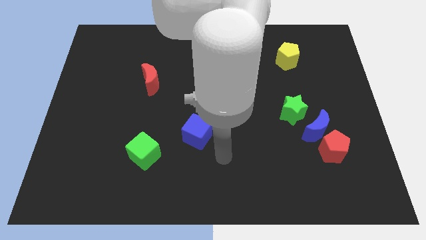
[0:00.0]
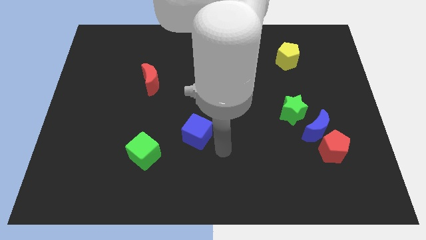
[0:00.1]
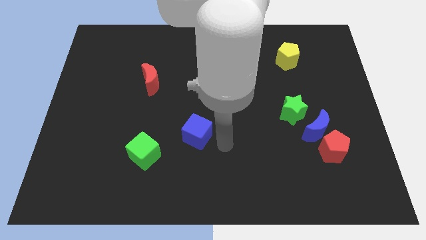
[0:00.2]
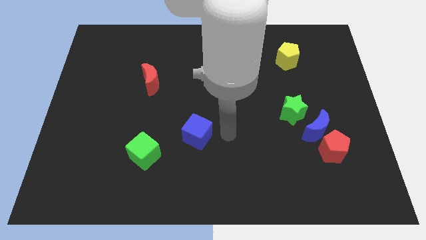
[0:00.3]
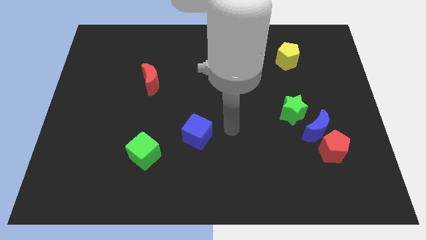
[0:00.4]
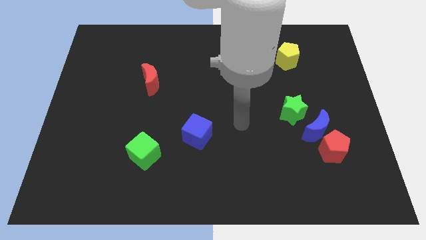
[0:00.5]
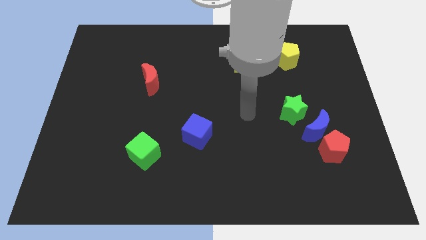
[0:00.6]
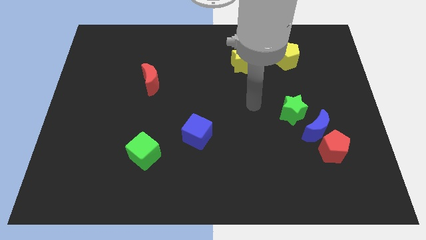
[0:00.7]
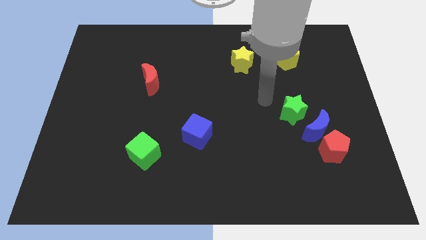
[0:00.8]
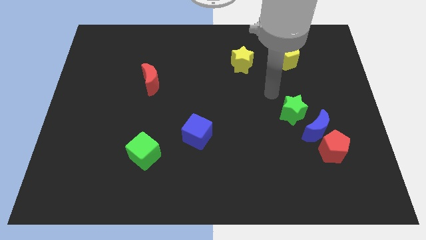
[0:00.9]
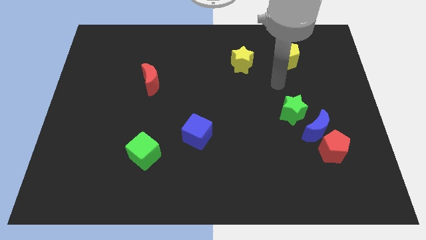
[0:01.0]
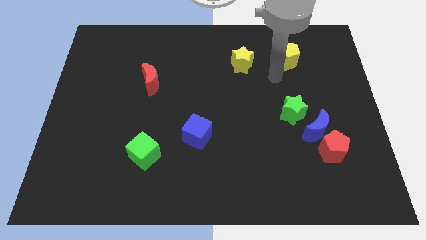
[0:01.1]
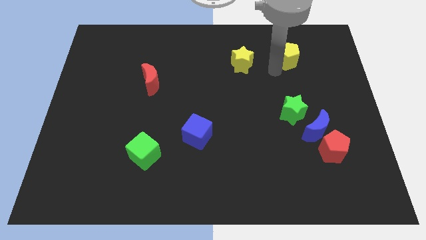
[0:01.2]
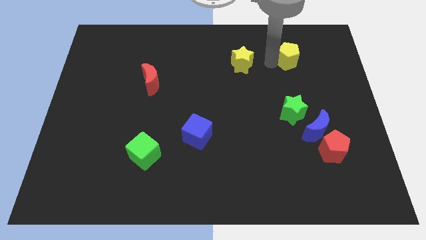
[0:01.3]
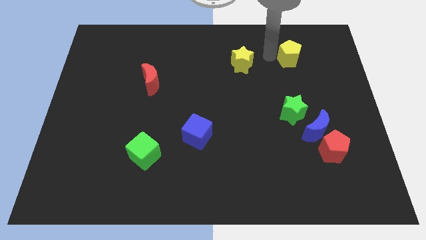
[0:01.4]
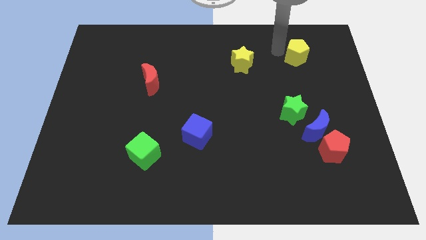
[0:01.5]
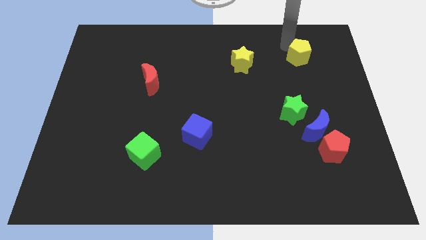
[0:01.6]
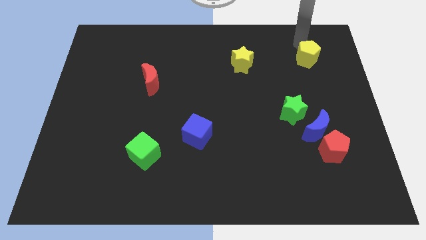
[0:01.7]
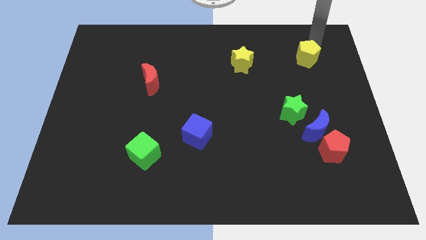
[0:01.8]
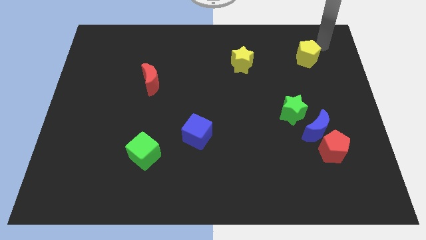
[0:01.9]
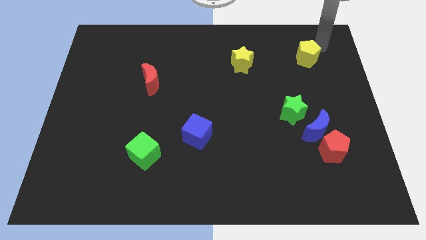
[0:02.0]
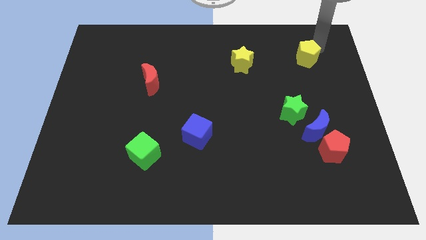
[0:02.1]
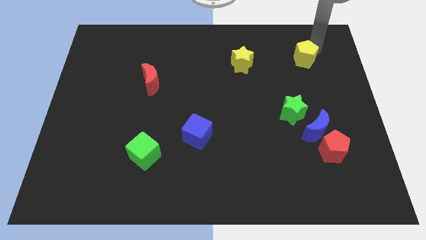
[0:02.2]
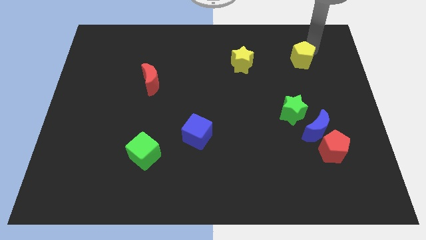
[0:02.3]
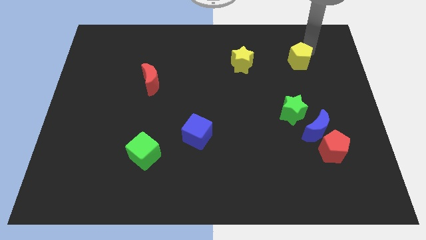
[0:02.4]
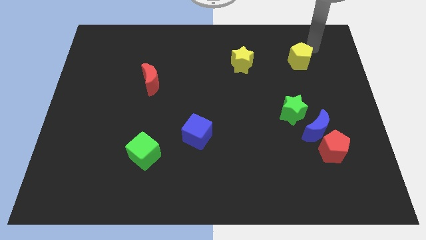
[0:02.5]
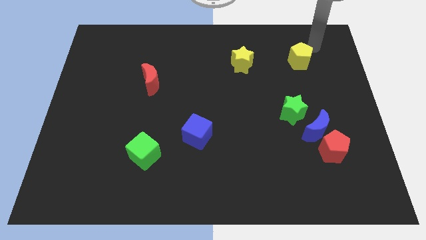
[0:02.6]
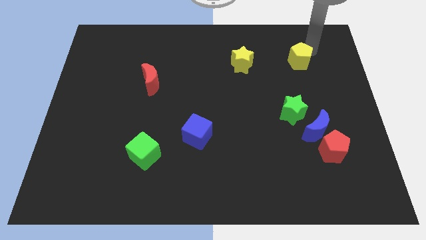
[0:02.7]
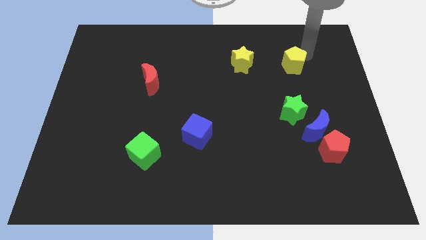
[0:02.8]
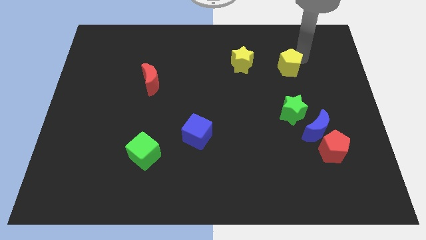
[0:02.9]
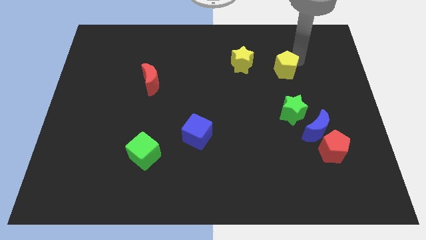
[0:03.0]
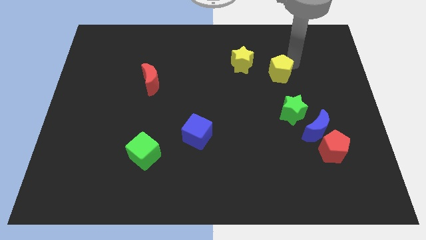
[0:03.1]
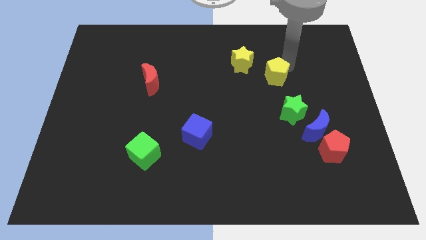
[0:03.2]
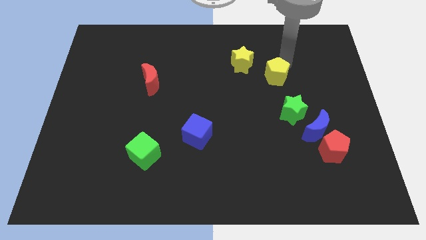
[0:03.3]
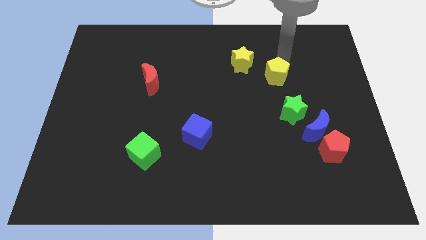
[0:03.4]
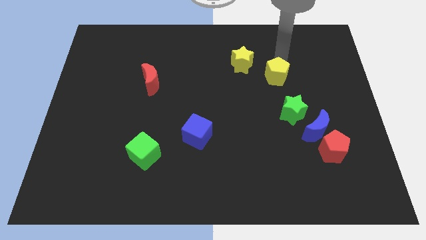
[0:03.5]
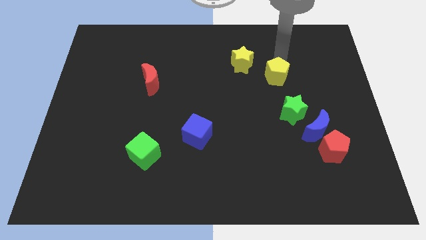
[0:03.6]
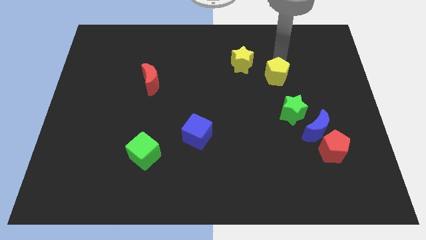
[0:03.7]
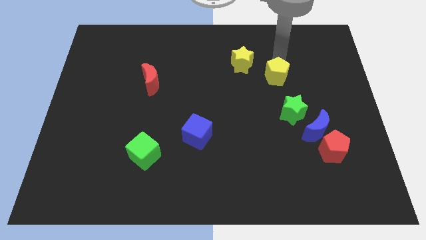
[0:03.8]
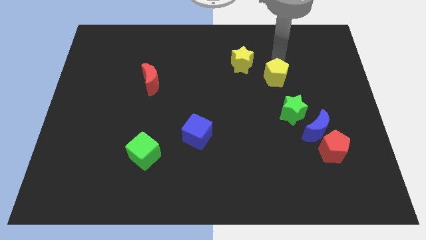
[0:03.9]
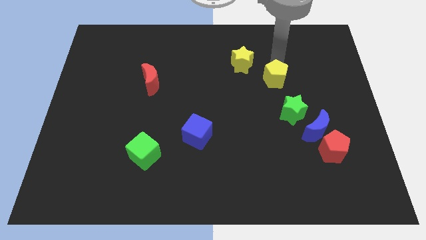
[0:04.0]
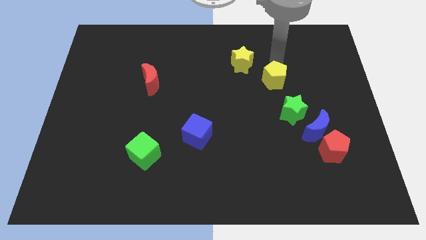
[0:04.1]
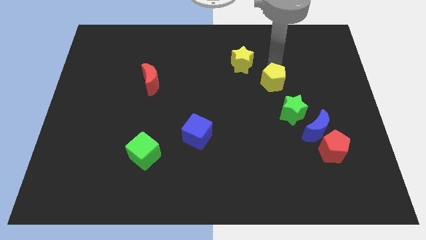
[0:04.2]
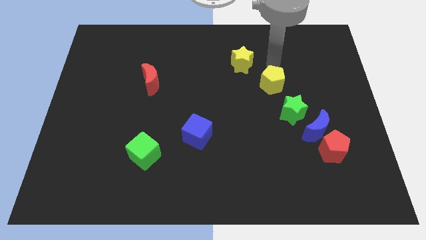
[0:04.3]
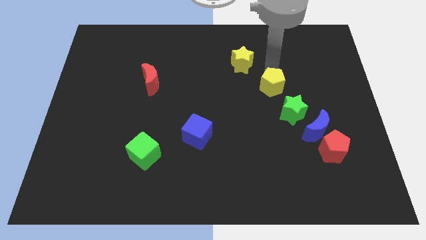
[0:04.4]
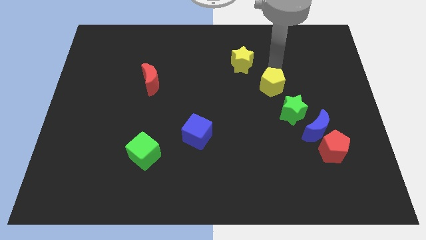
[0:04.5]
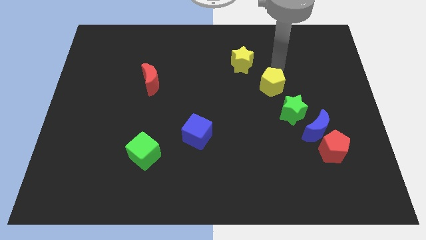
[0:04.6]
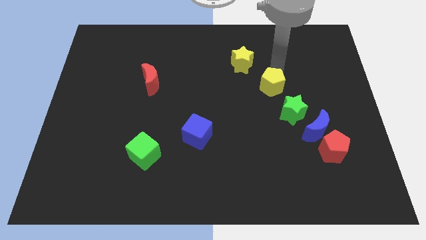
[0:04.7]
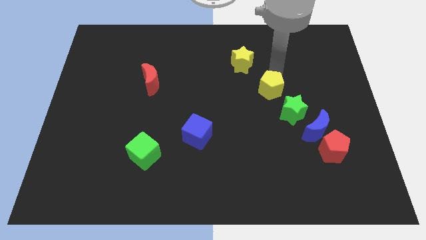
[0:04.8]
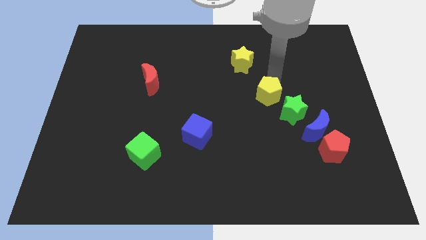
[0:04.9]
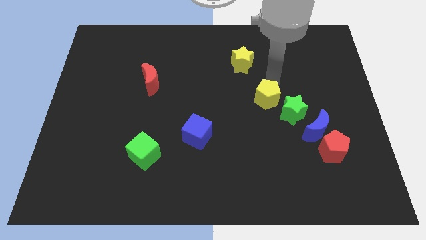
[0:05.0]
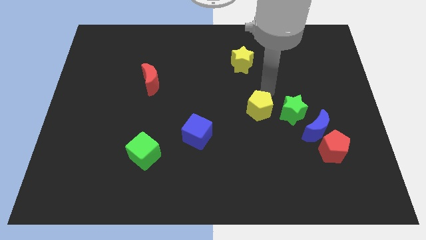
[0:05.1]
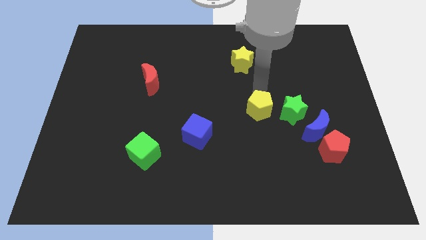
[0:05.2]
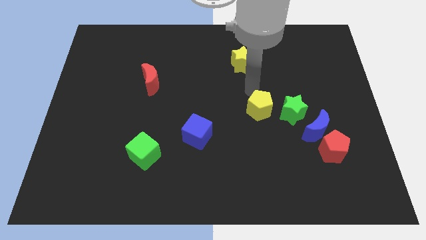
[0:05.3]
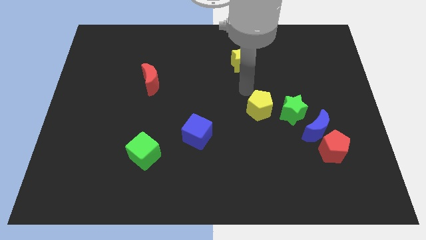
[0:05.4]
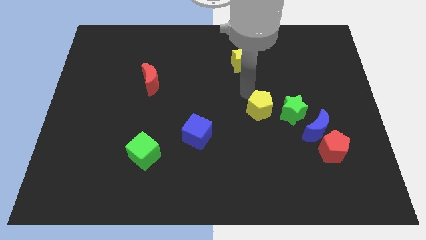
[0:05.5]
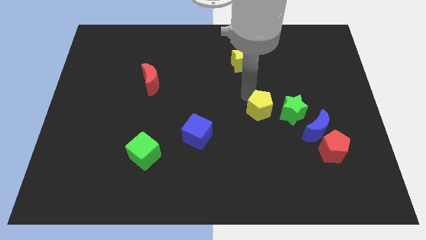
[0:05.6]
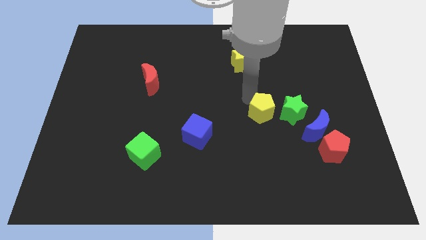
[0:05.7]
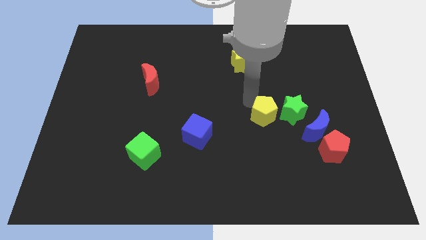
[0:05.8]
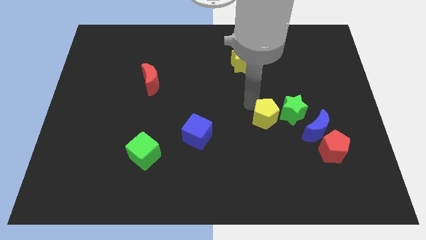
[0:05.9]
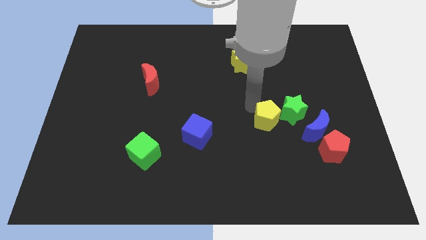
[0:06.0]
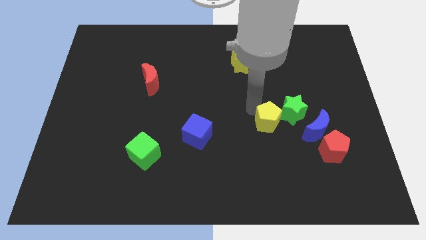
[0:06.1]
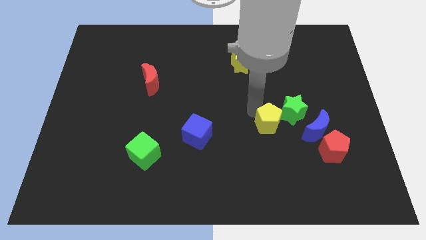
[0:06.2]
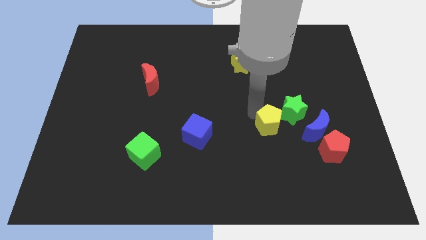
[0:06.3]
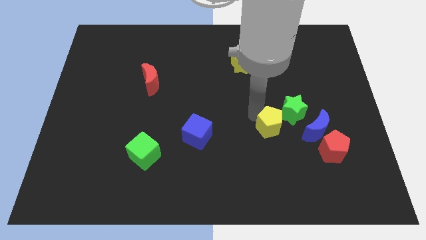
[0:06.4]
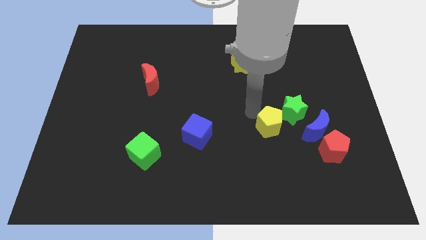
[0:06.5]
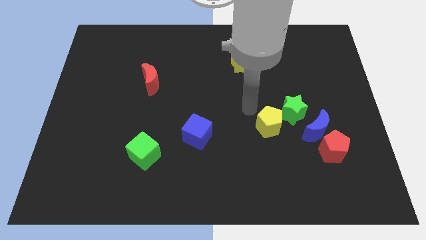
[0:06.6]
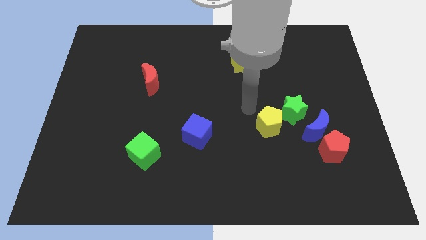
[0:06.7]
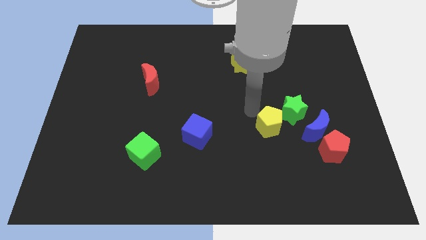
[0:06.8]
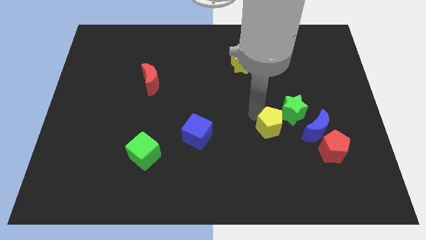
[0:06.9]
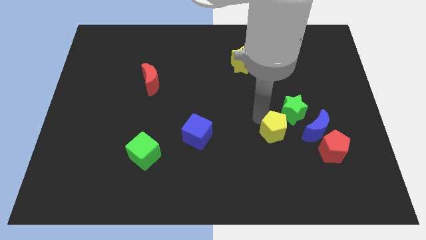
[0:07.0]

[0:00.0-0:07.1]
move the yellow pentagon downwards

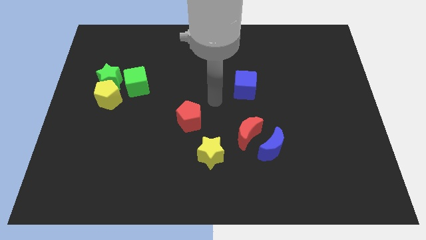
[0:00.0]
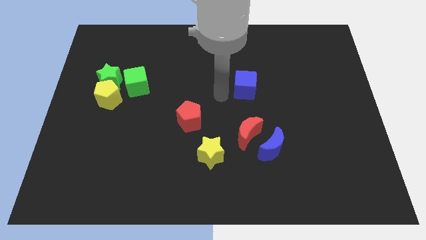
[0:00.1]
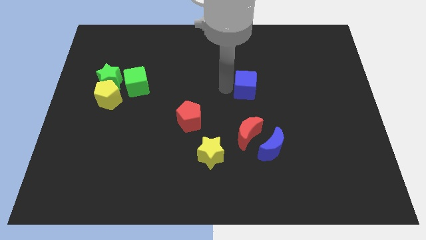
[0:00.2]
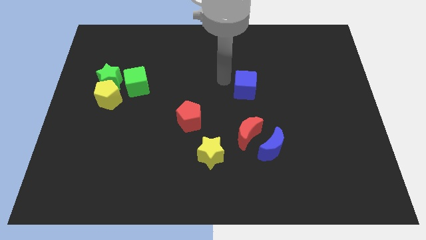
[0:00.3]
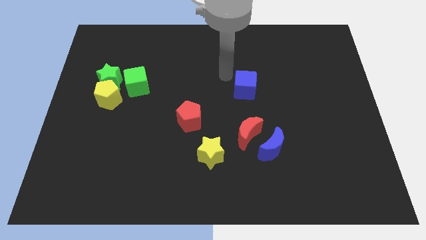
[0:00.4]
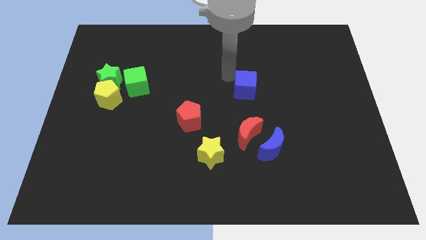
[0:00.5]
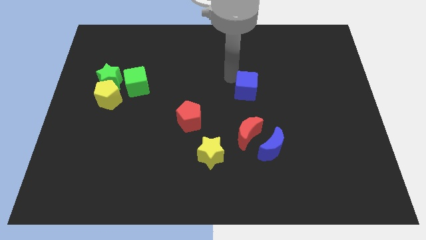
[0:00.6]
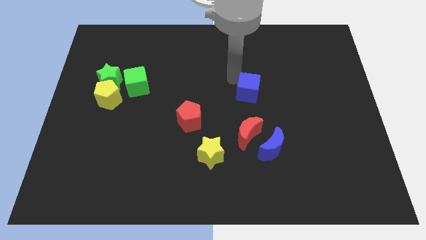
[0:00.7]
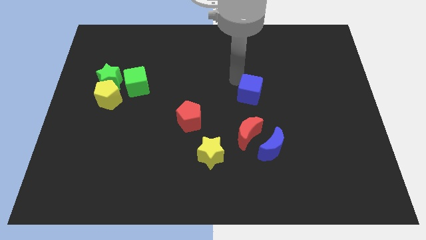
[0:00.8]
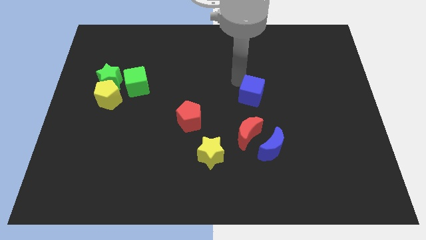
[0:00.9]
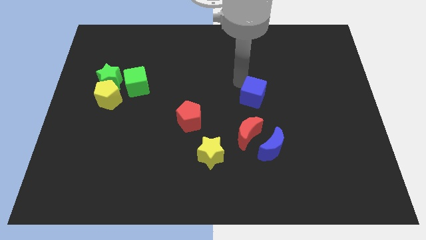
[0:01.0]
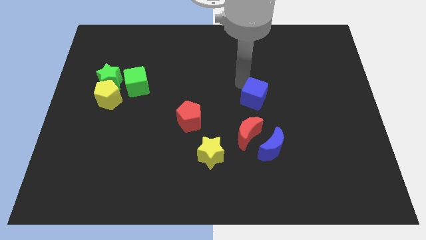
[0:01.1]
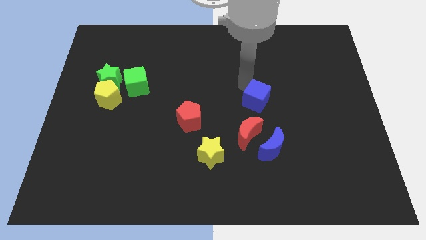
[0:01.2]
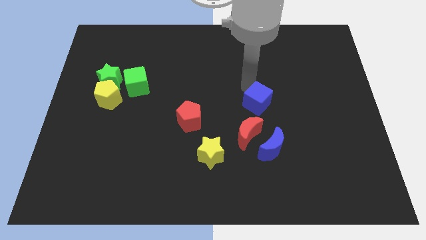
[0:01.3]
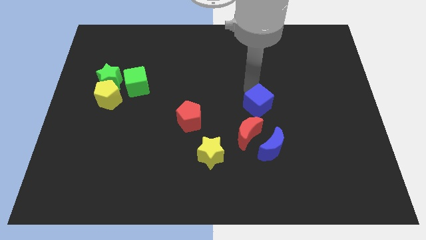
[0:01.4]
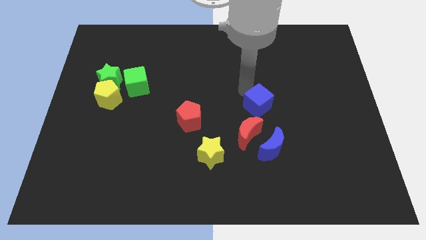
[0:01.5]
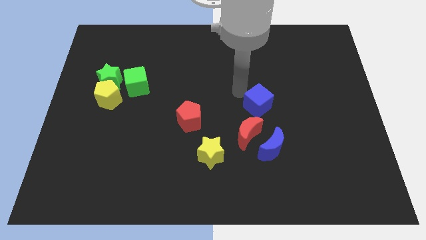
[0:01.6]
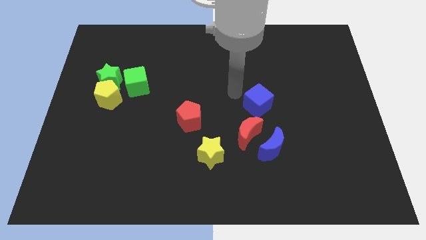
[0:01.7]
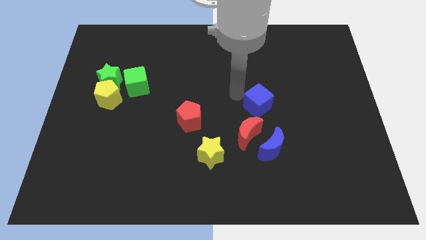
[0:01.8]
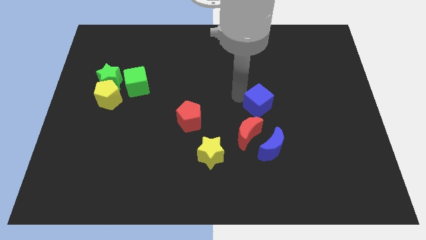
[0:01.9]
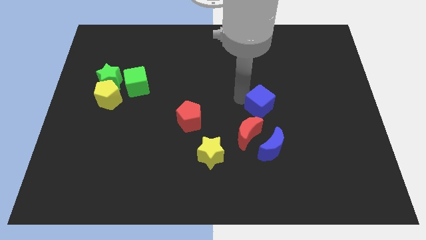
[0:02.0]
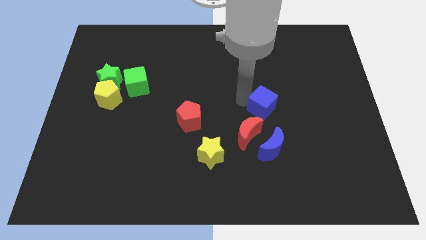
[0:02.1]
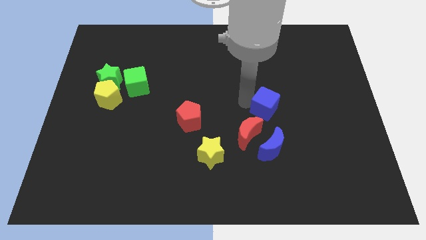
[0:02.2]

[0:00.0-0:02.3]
move the blue cube somewhat diagonally downwards and to the right
